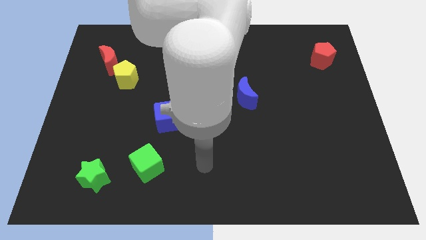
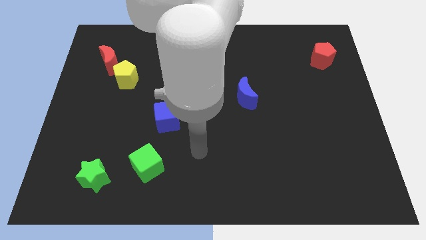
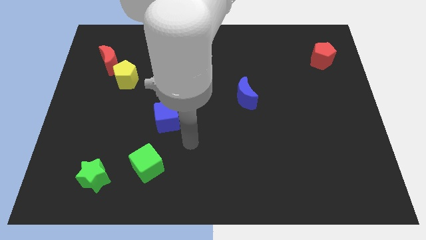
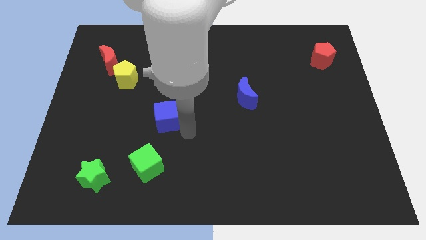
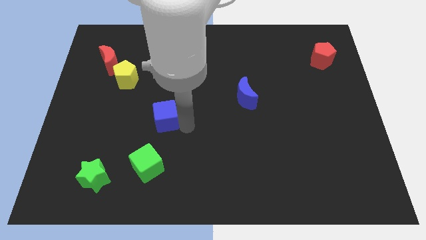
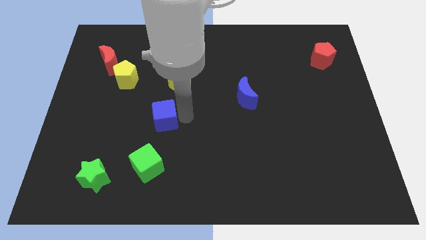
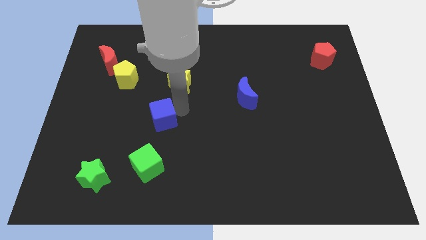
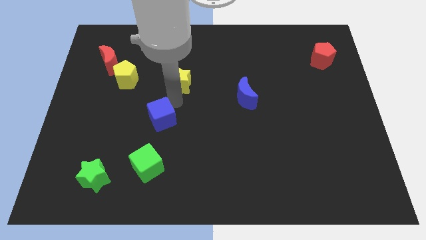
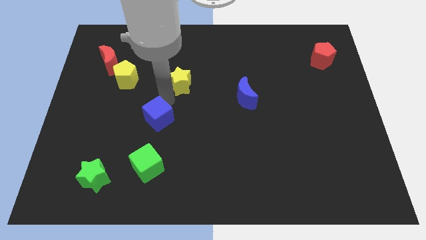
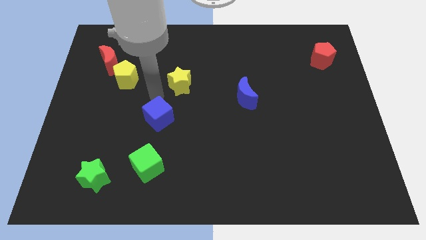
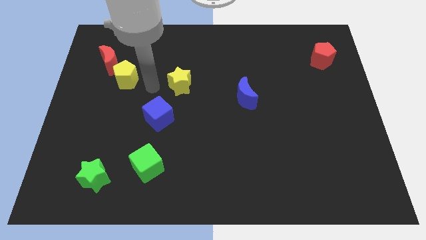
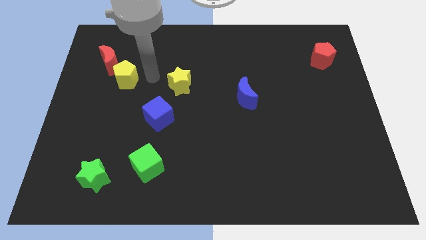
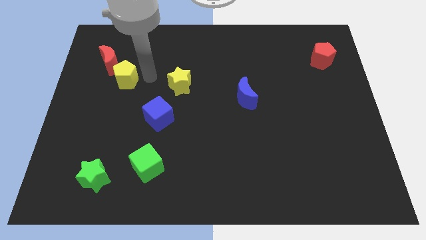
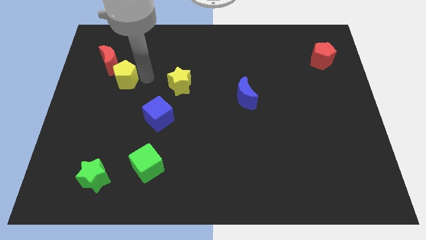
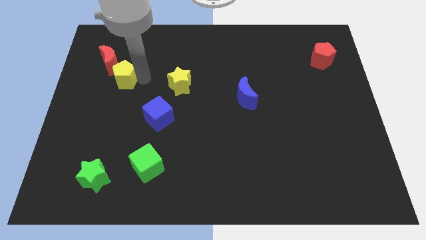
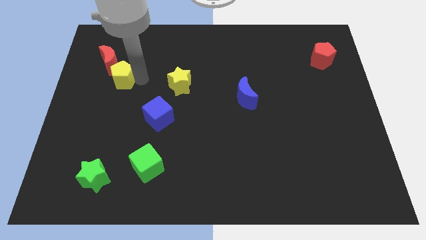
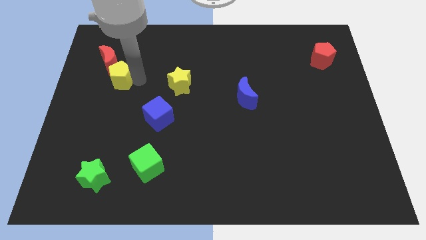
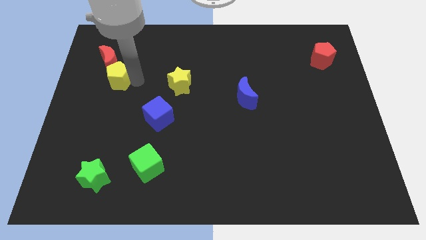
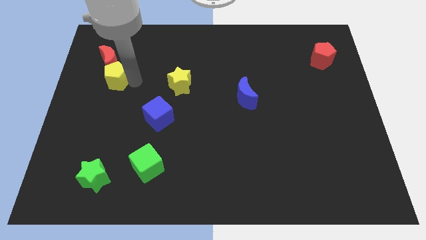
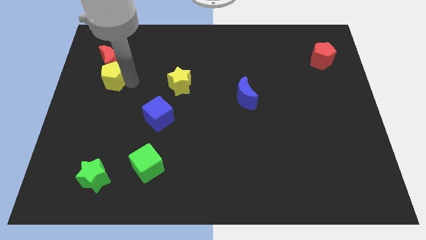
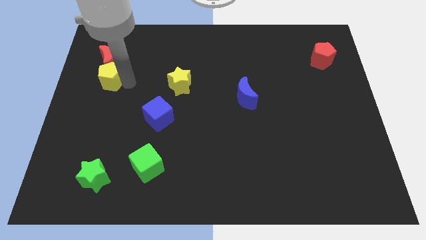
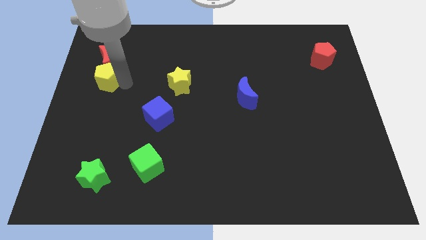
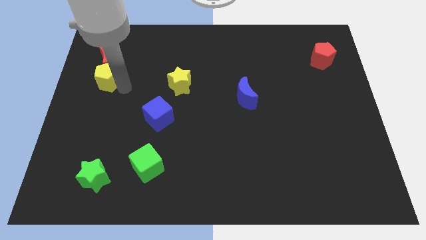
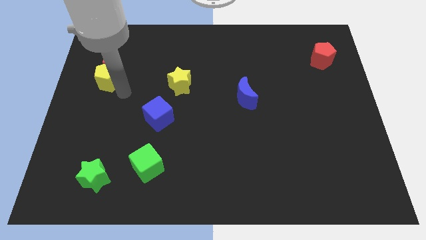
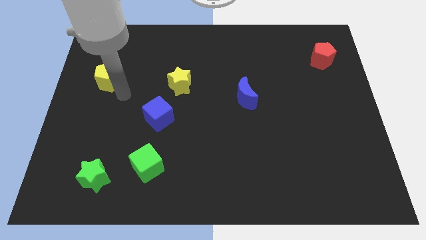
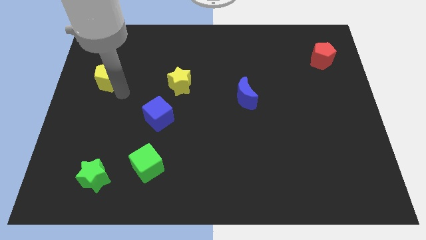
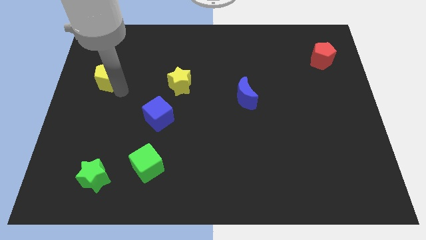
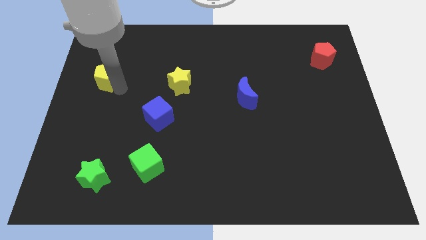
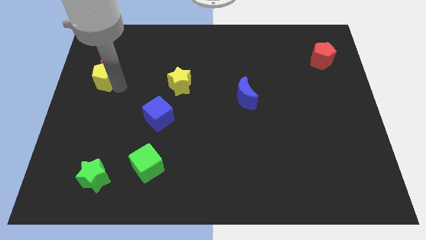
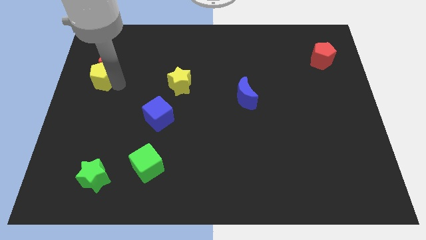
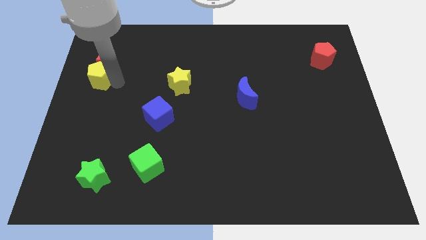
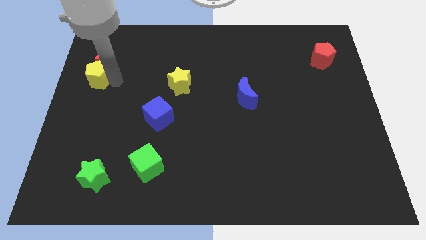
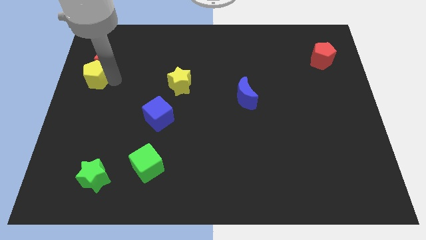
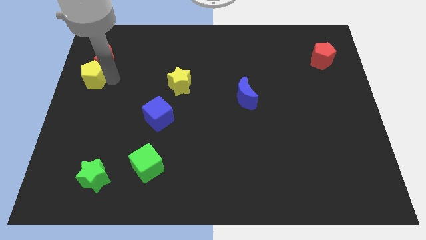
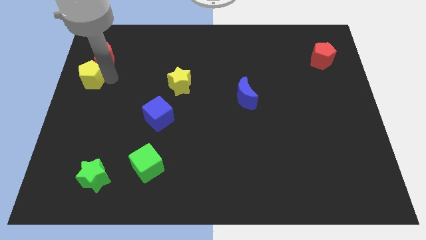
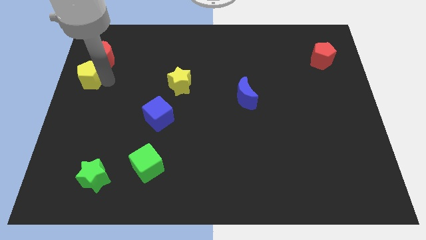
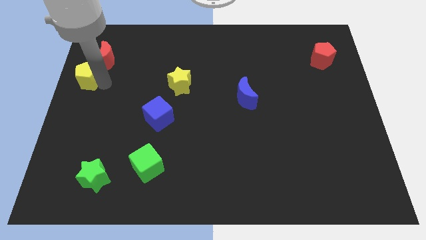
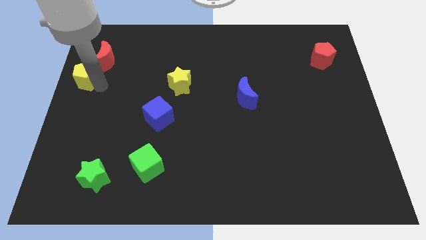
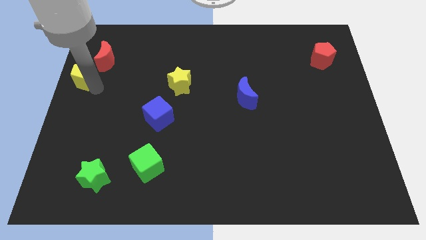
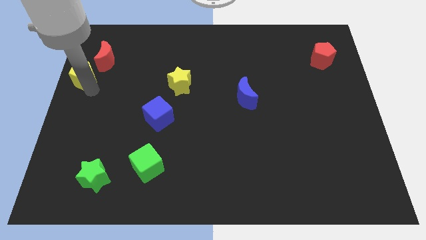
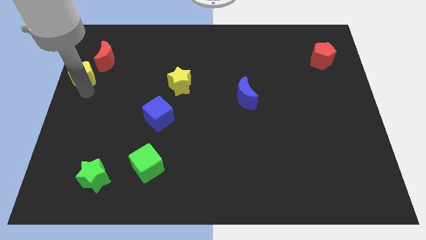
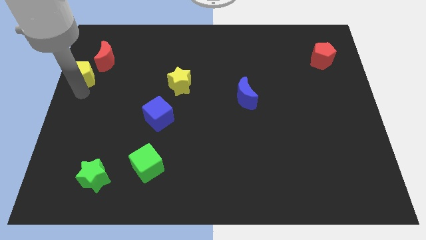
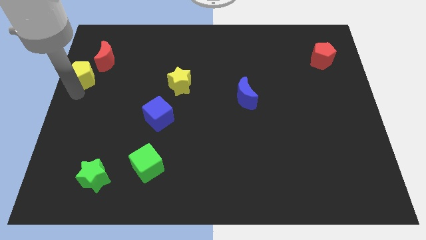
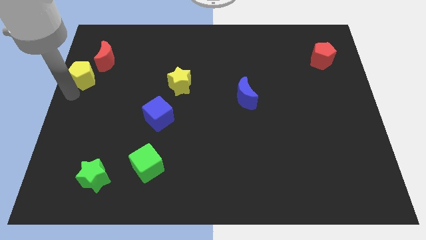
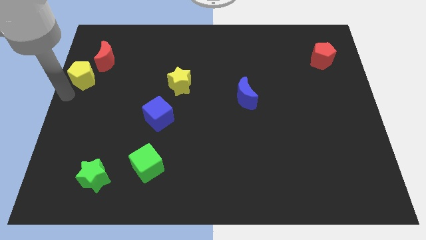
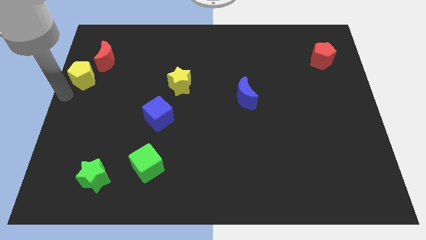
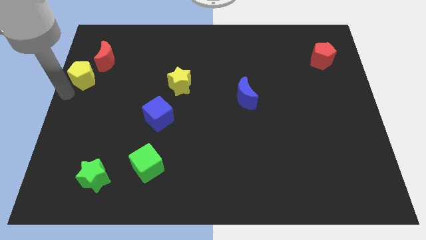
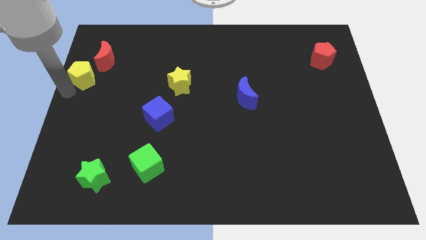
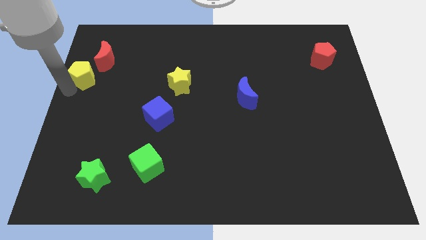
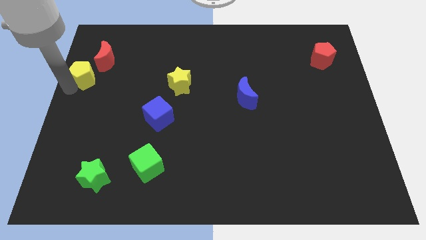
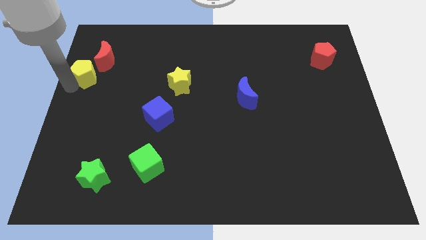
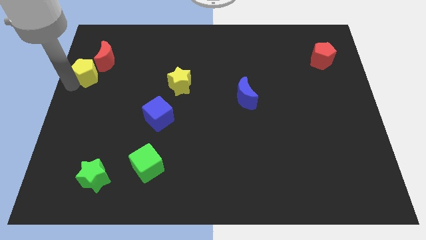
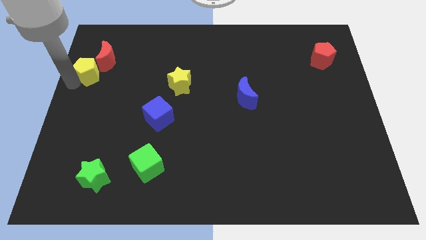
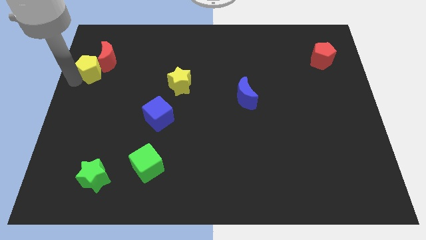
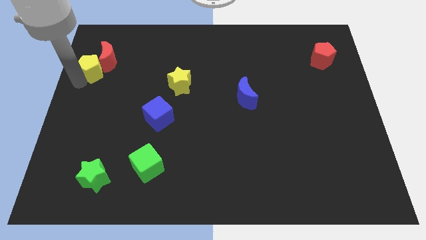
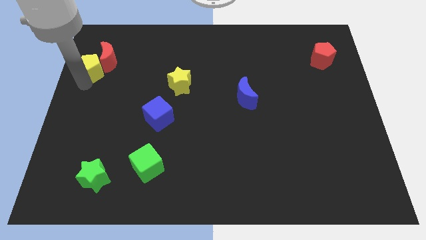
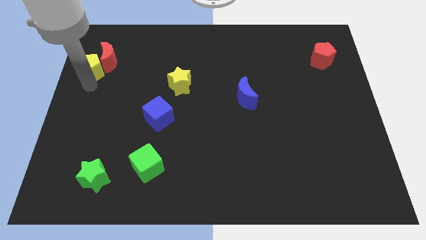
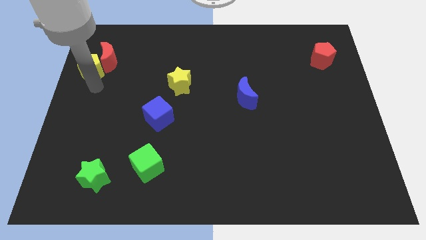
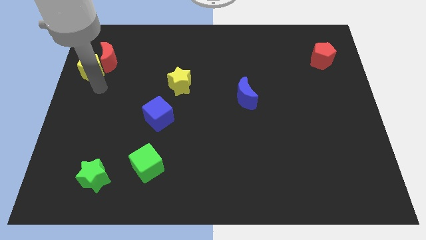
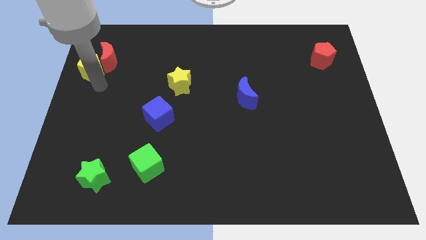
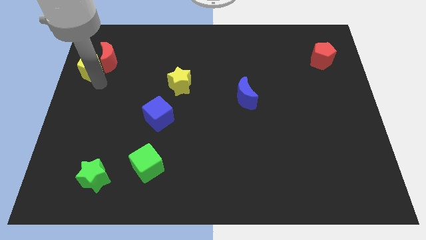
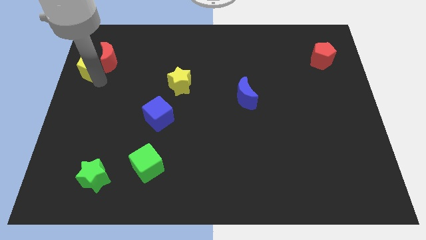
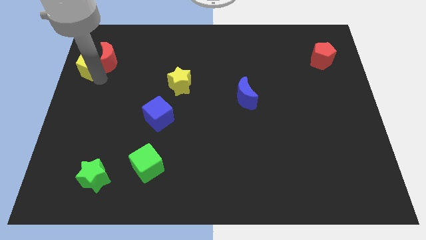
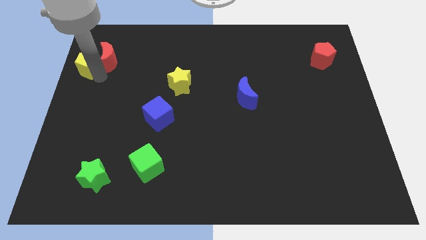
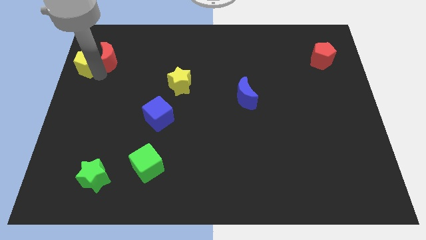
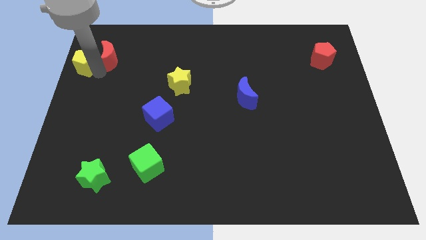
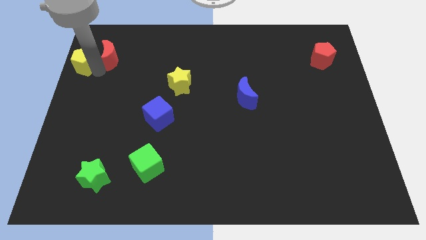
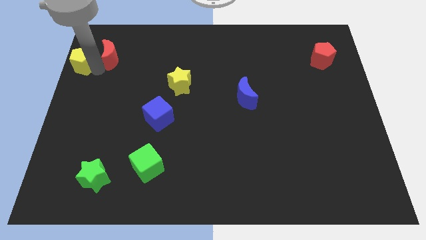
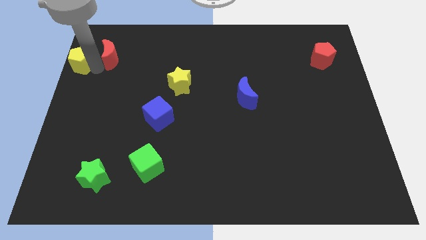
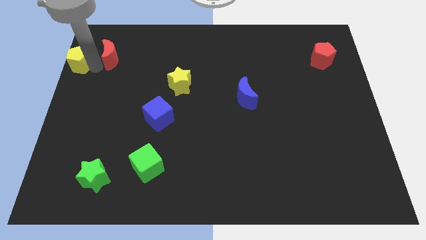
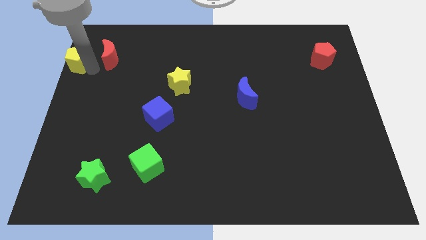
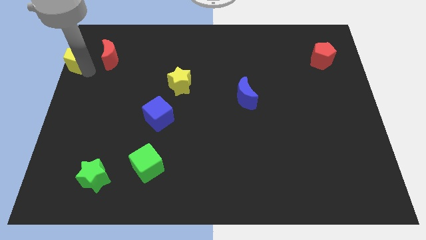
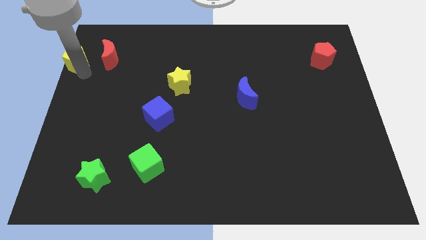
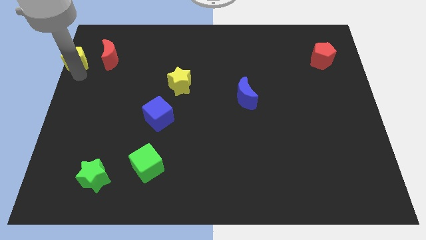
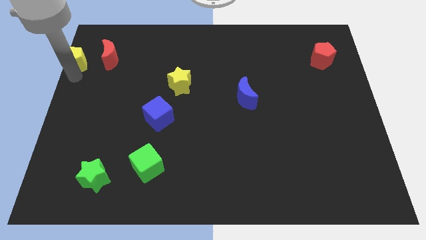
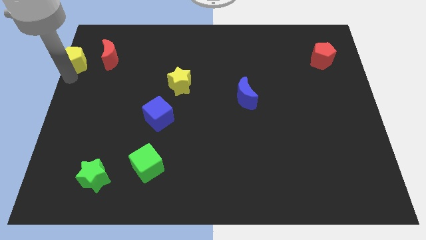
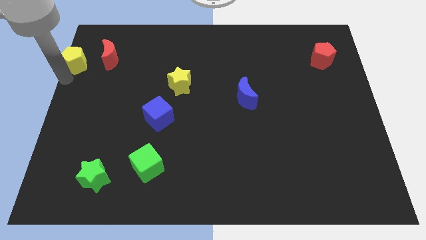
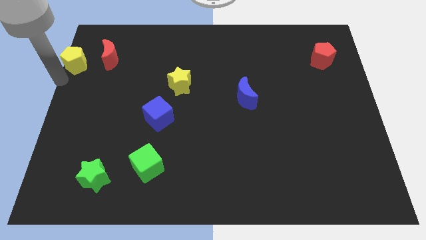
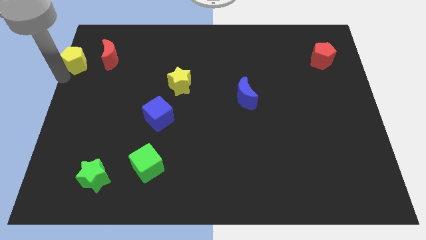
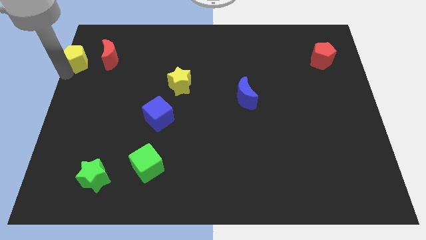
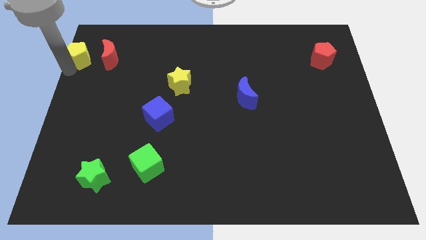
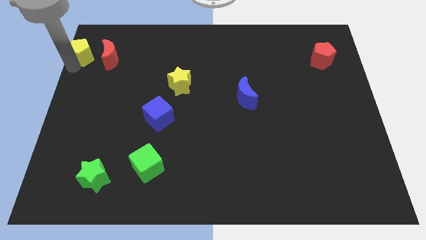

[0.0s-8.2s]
slide the yellow pentagon to the top left corner
